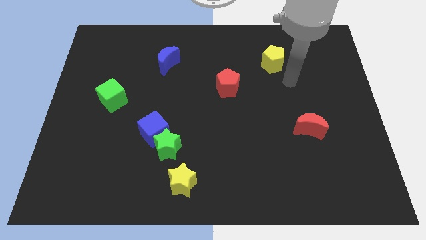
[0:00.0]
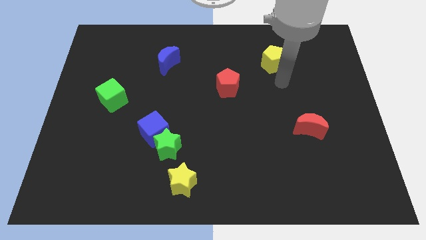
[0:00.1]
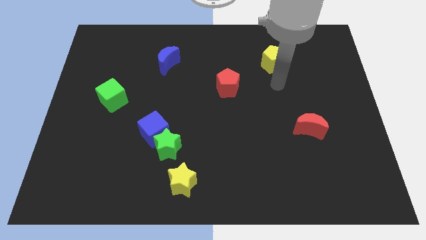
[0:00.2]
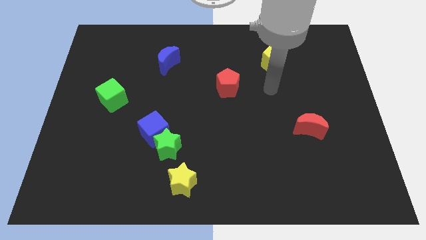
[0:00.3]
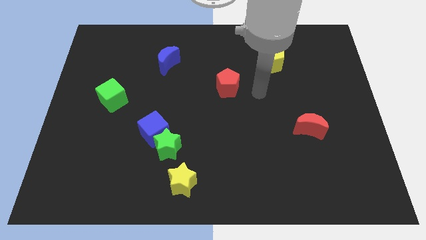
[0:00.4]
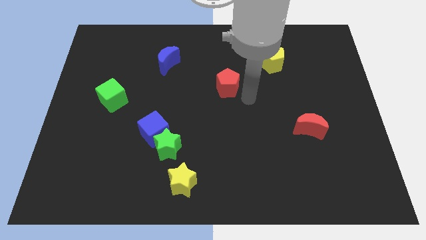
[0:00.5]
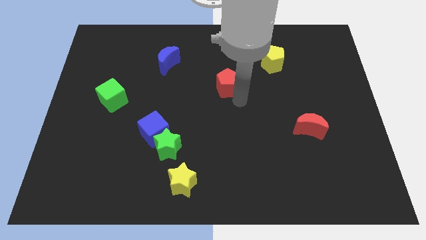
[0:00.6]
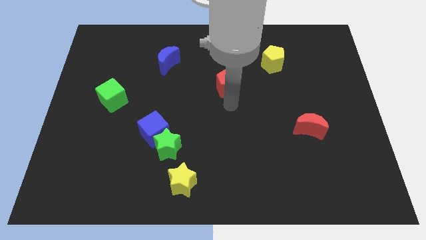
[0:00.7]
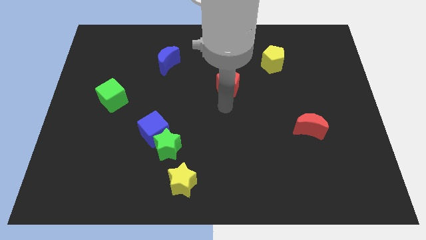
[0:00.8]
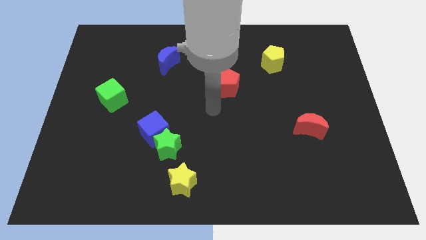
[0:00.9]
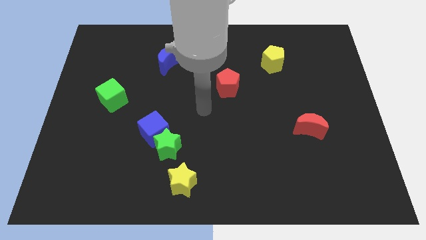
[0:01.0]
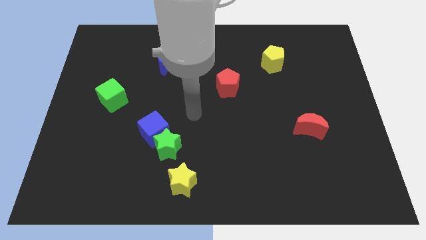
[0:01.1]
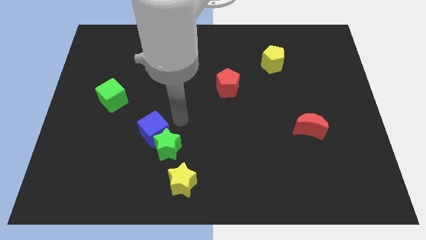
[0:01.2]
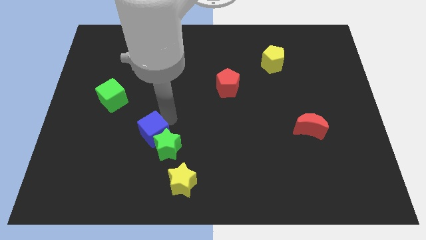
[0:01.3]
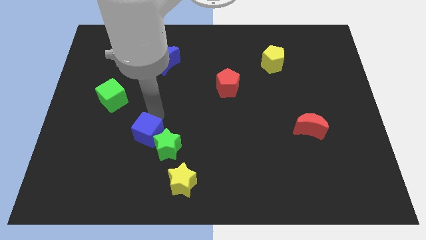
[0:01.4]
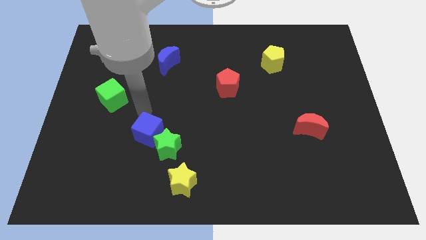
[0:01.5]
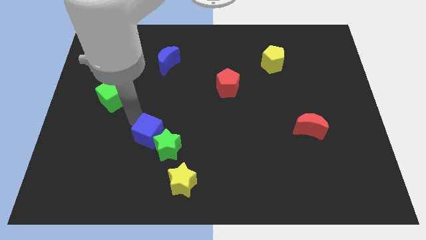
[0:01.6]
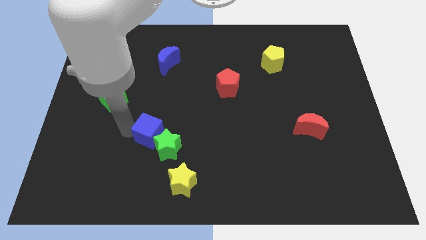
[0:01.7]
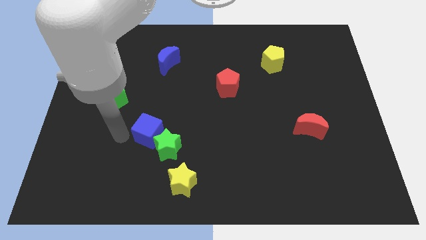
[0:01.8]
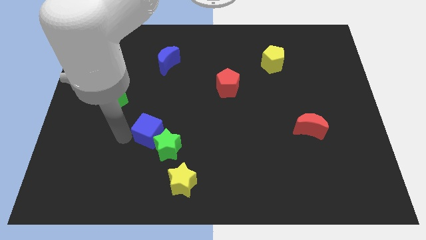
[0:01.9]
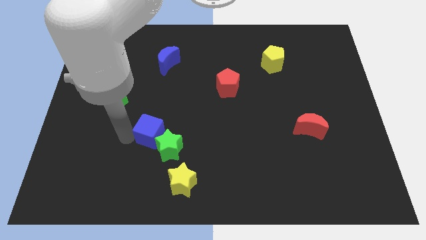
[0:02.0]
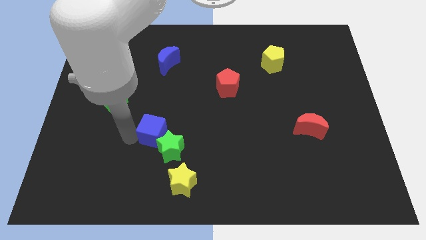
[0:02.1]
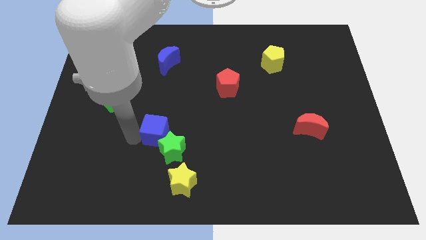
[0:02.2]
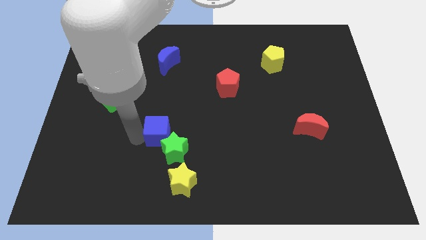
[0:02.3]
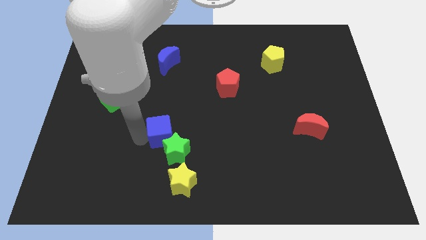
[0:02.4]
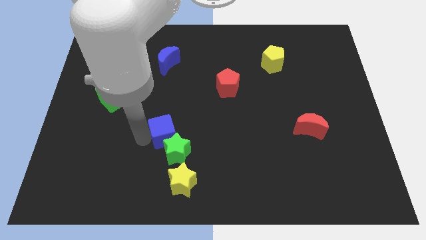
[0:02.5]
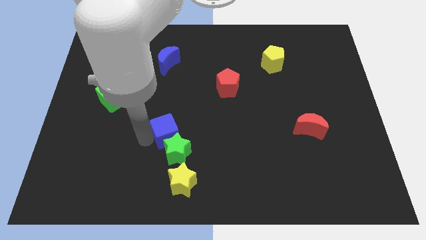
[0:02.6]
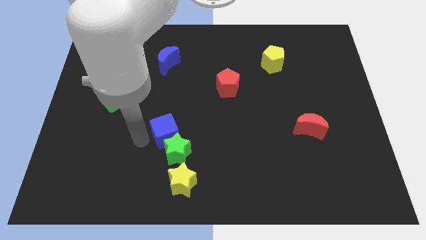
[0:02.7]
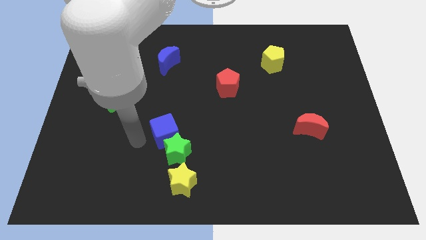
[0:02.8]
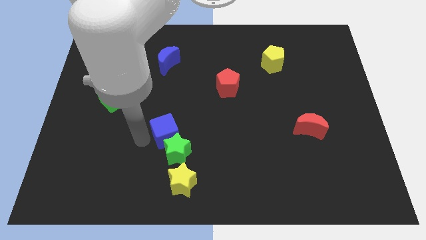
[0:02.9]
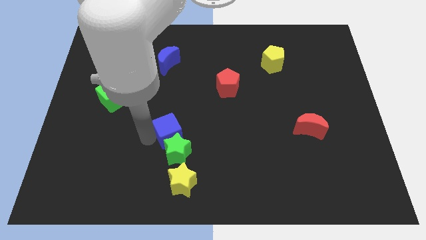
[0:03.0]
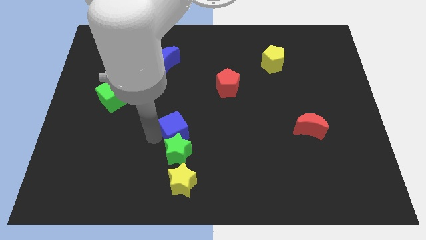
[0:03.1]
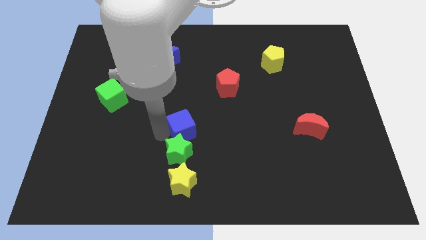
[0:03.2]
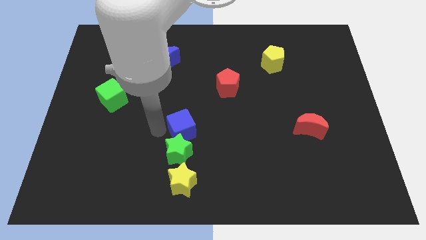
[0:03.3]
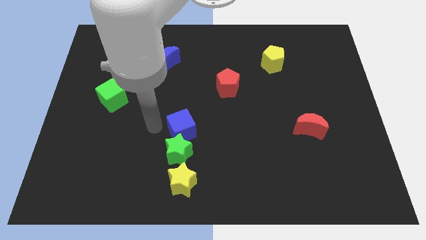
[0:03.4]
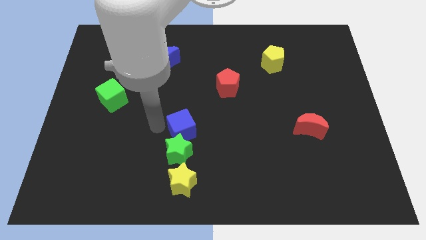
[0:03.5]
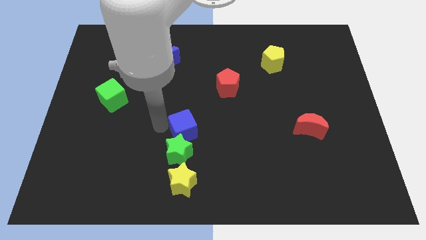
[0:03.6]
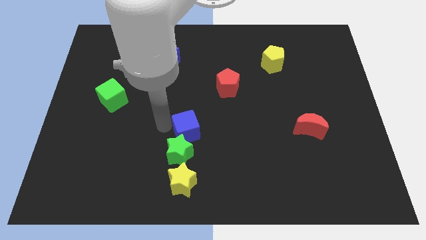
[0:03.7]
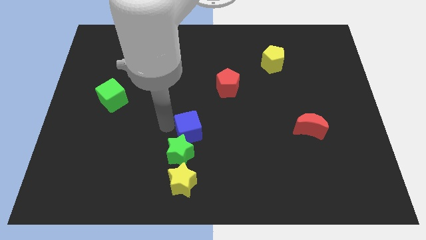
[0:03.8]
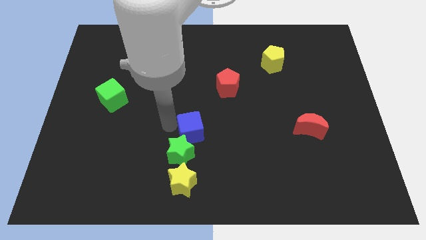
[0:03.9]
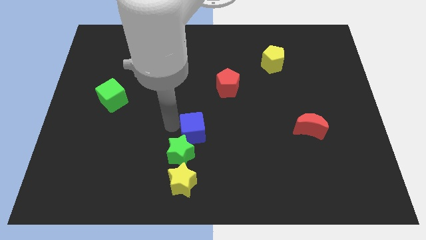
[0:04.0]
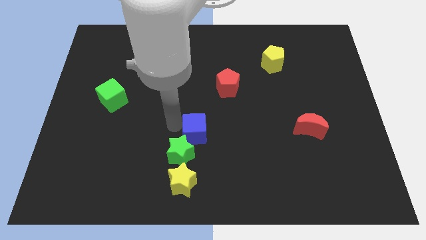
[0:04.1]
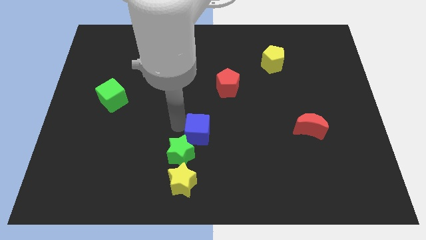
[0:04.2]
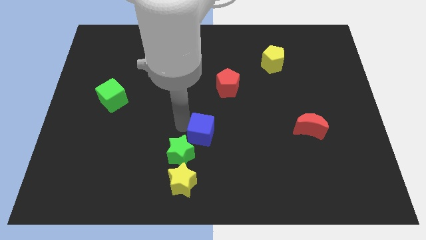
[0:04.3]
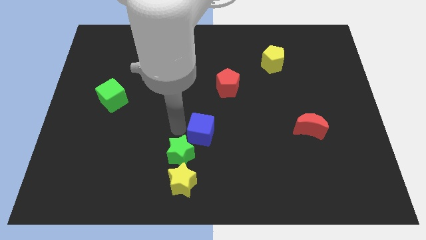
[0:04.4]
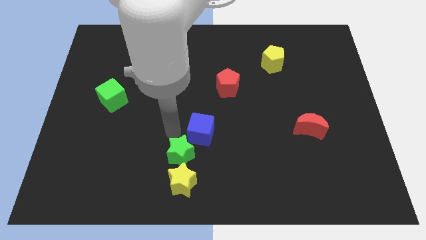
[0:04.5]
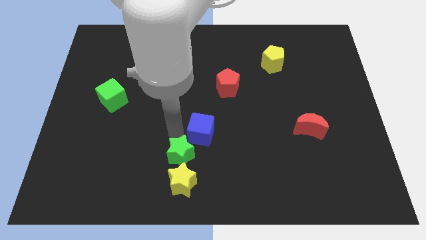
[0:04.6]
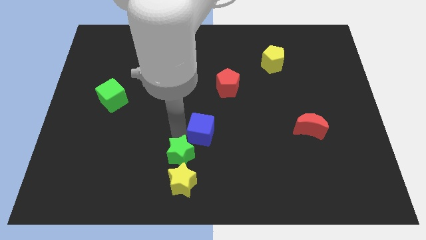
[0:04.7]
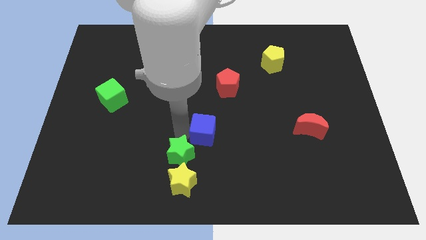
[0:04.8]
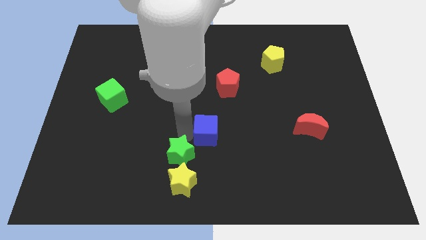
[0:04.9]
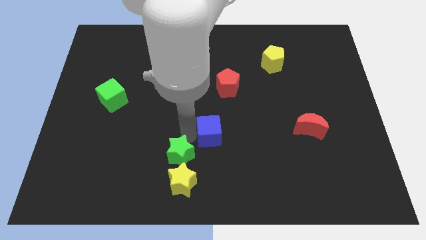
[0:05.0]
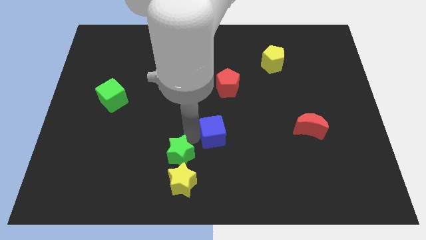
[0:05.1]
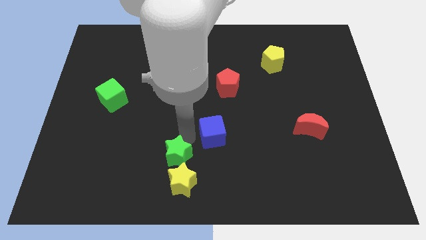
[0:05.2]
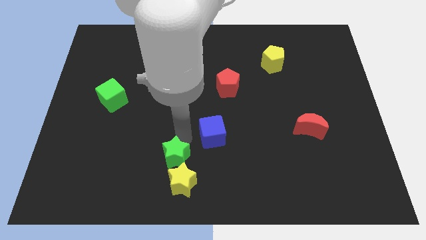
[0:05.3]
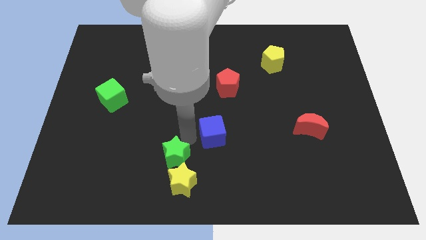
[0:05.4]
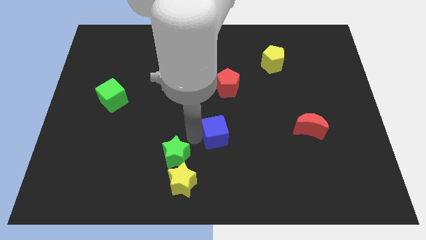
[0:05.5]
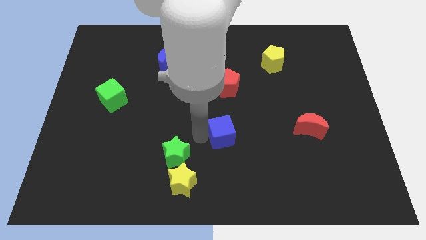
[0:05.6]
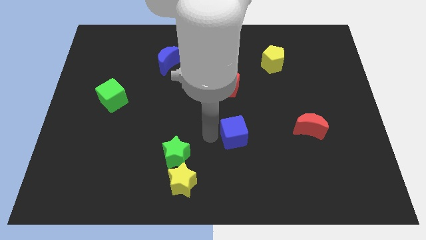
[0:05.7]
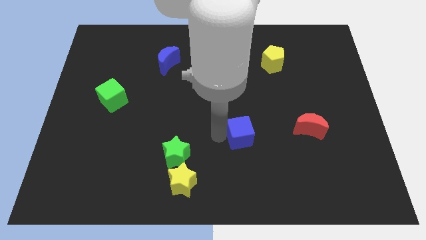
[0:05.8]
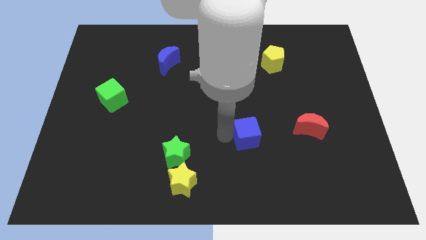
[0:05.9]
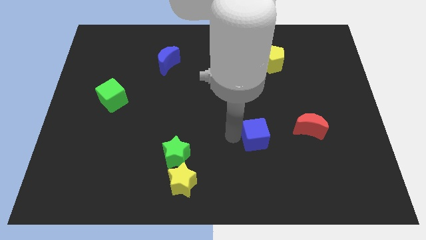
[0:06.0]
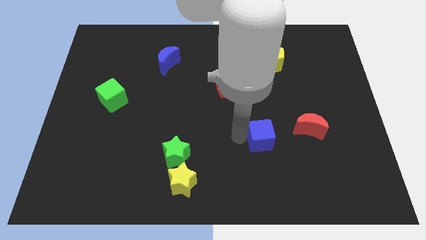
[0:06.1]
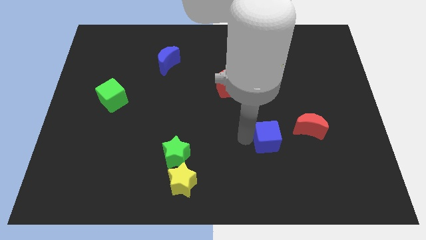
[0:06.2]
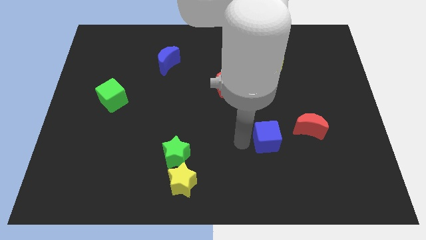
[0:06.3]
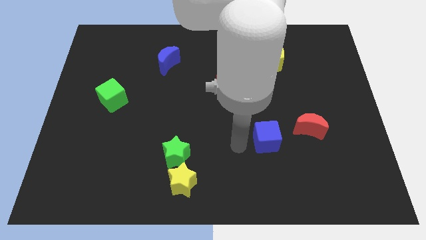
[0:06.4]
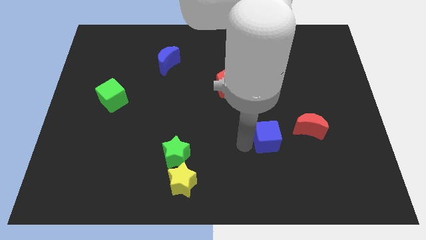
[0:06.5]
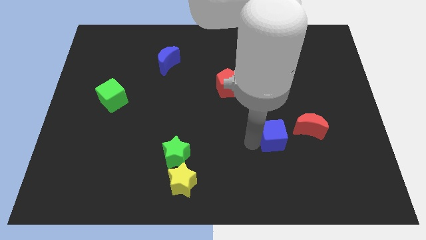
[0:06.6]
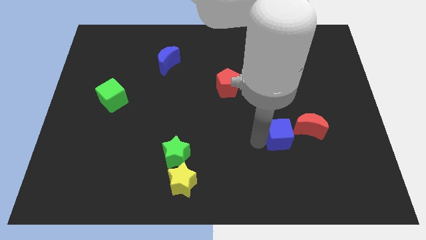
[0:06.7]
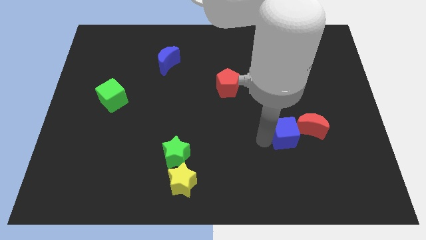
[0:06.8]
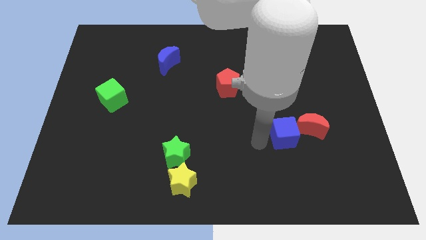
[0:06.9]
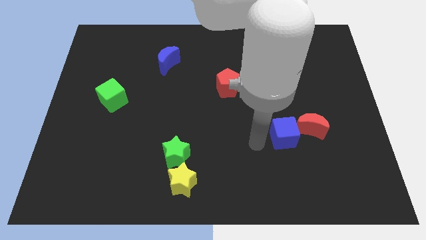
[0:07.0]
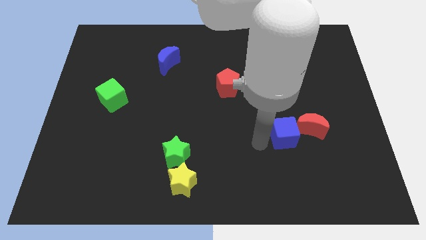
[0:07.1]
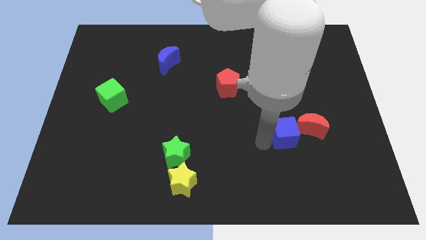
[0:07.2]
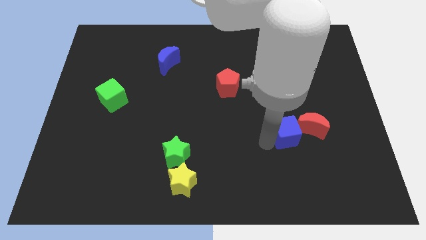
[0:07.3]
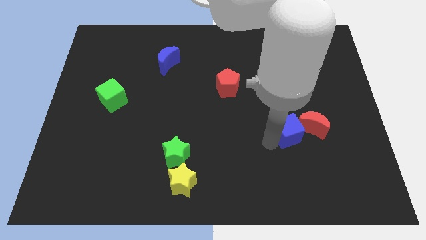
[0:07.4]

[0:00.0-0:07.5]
push the blue cube close to the red moon

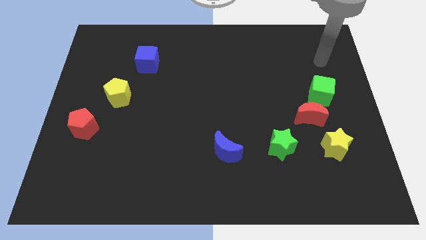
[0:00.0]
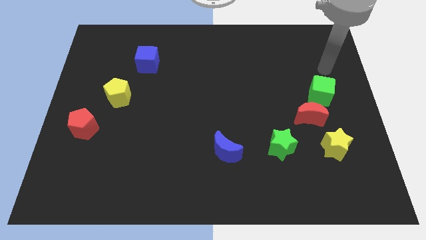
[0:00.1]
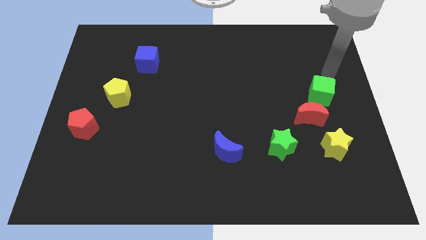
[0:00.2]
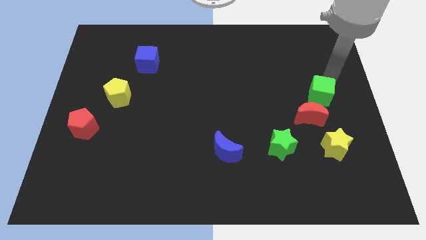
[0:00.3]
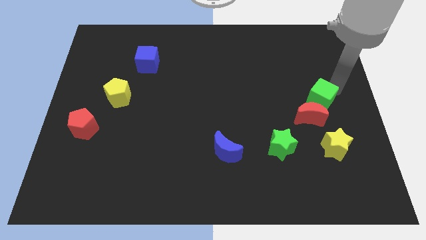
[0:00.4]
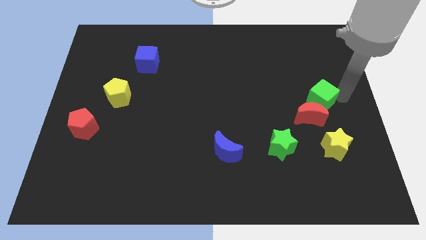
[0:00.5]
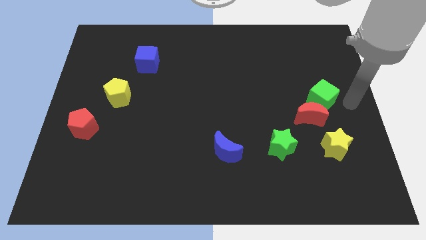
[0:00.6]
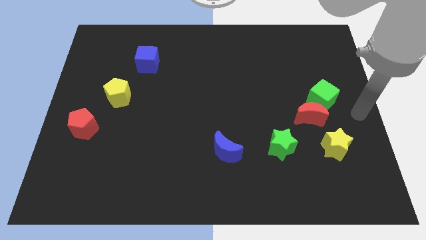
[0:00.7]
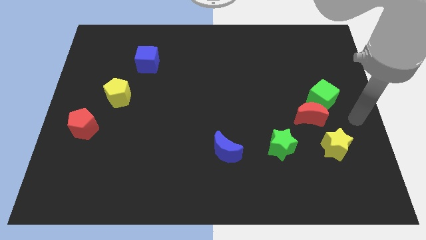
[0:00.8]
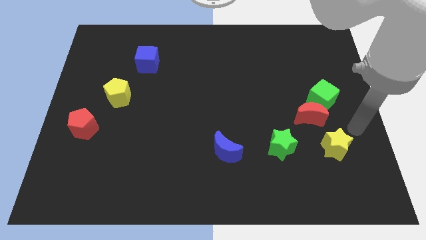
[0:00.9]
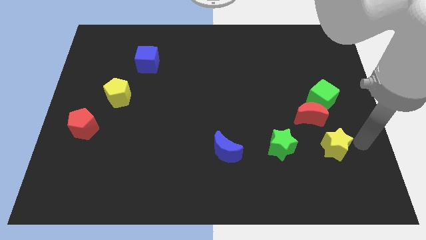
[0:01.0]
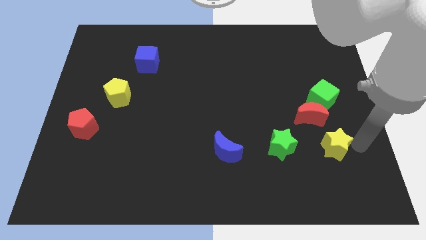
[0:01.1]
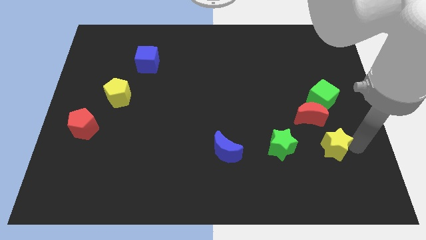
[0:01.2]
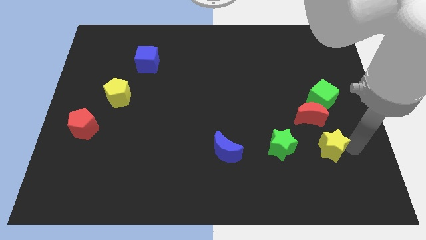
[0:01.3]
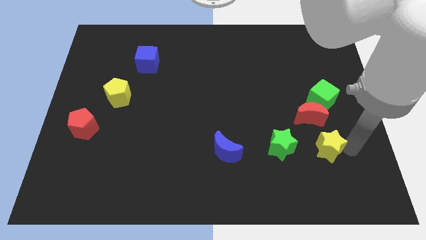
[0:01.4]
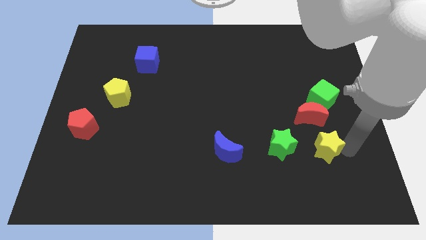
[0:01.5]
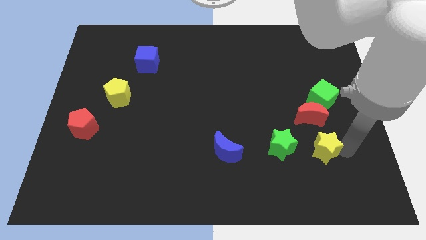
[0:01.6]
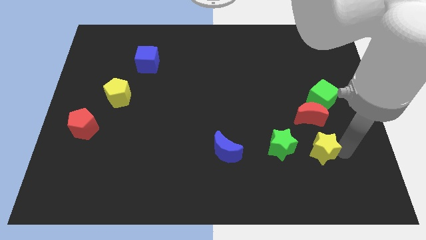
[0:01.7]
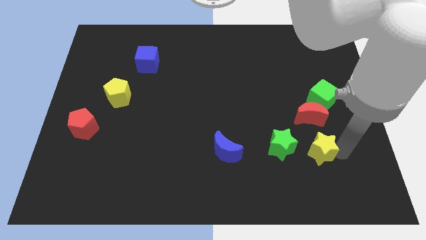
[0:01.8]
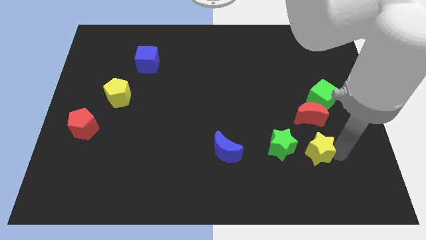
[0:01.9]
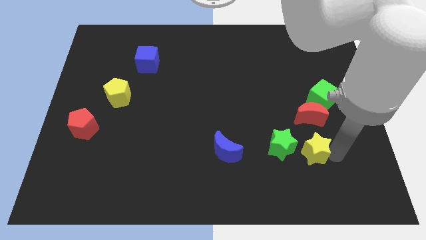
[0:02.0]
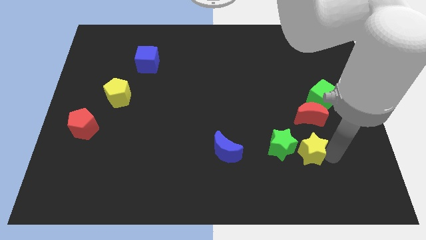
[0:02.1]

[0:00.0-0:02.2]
move the yellow star towards the green star
